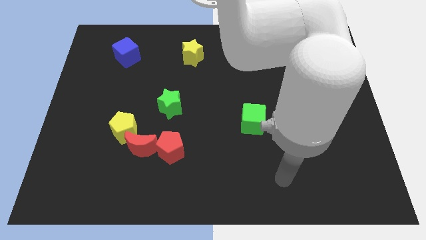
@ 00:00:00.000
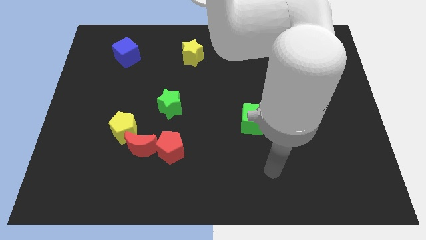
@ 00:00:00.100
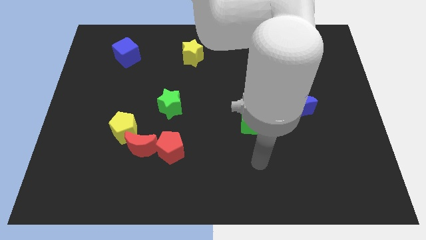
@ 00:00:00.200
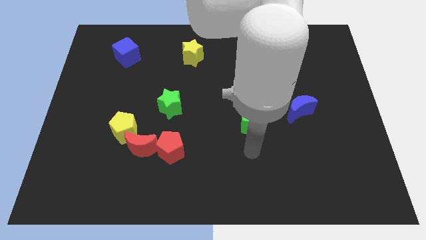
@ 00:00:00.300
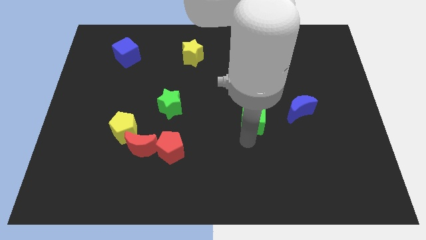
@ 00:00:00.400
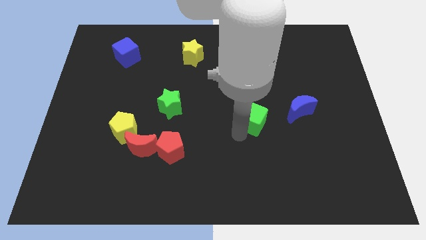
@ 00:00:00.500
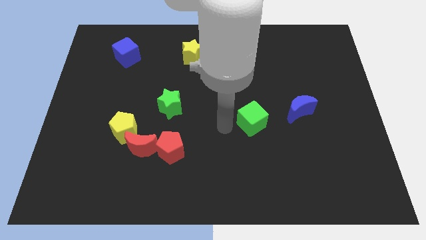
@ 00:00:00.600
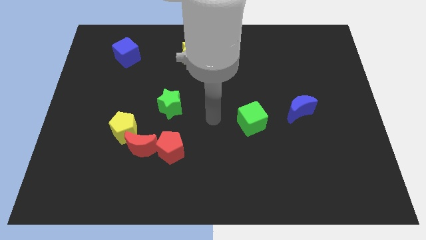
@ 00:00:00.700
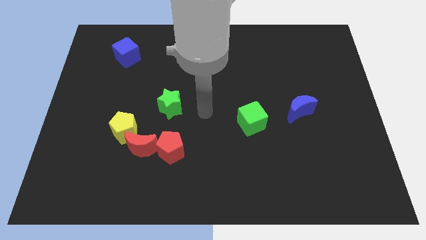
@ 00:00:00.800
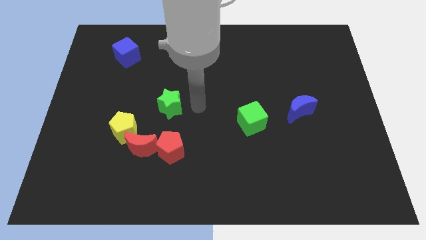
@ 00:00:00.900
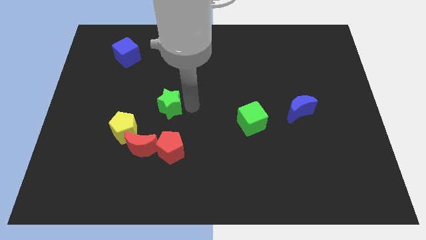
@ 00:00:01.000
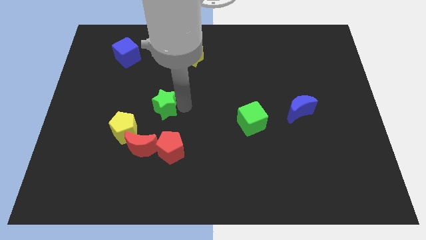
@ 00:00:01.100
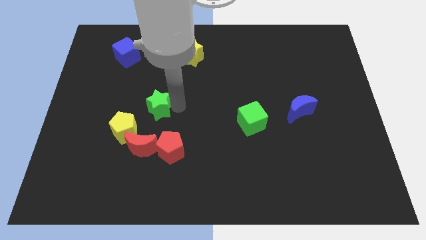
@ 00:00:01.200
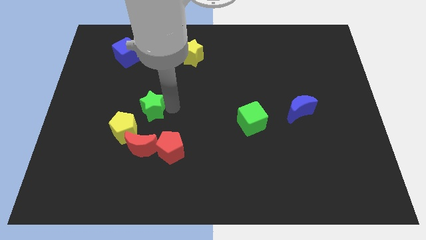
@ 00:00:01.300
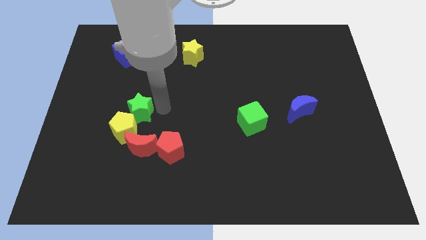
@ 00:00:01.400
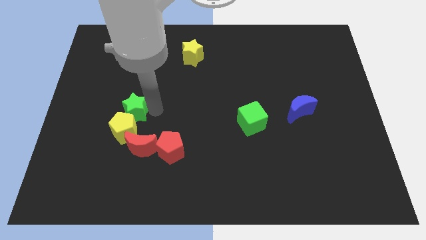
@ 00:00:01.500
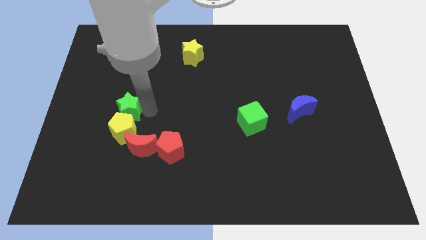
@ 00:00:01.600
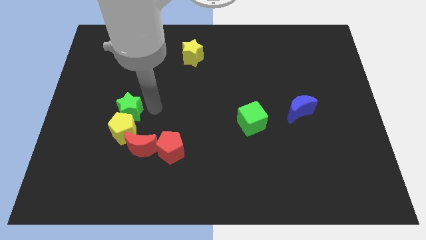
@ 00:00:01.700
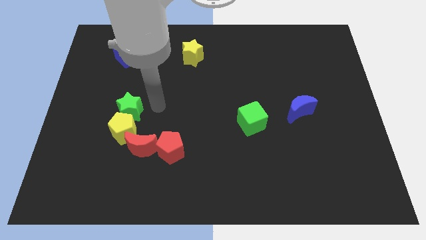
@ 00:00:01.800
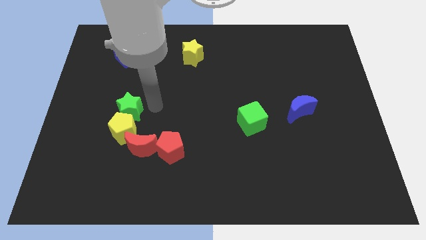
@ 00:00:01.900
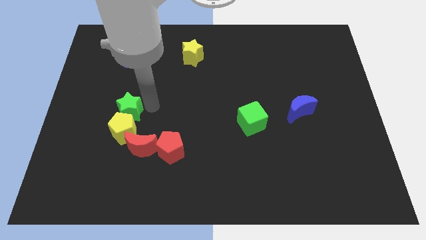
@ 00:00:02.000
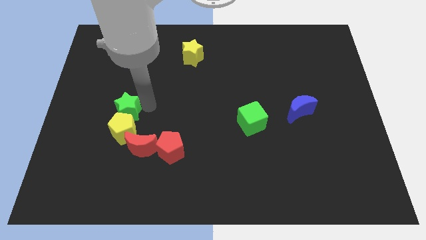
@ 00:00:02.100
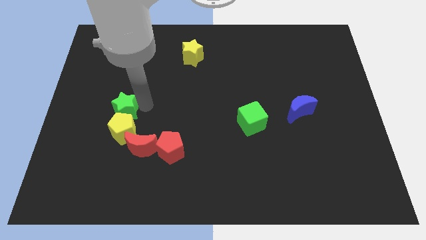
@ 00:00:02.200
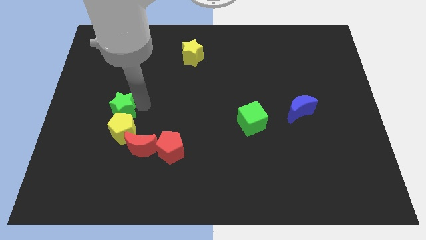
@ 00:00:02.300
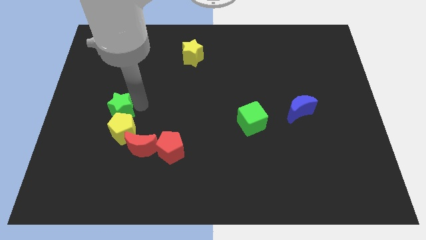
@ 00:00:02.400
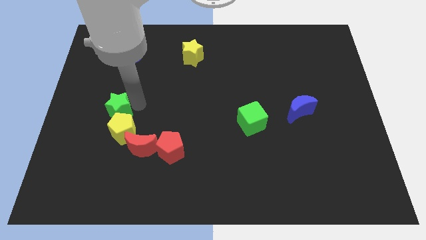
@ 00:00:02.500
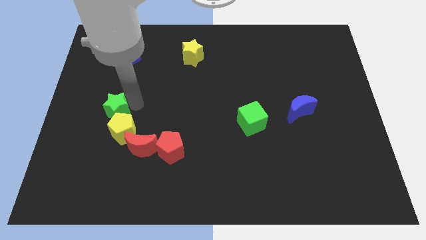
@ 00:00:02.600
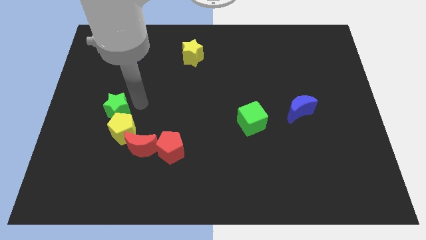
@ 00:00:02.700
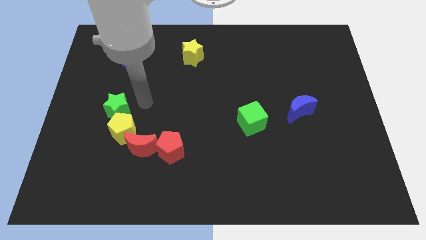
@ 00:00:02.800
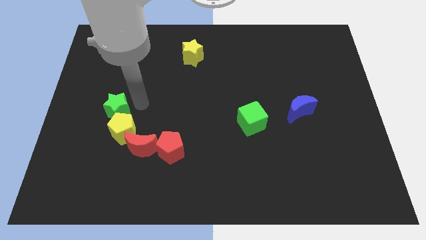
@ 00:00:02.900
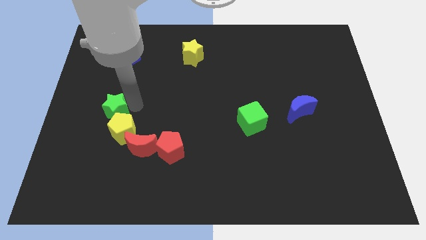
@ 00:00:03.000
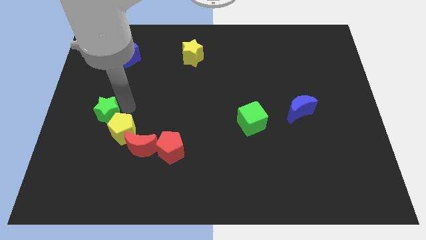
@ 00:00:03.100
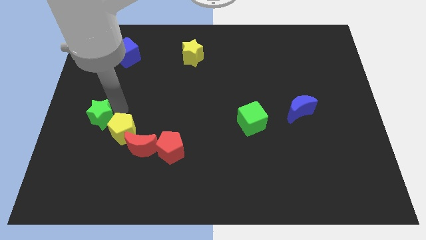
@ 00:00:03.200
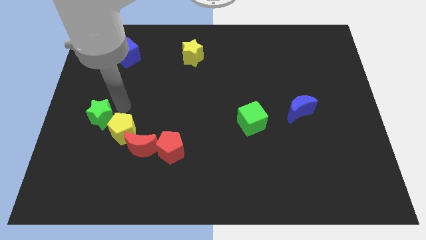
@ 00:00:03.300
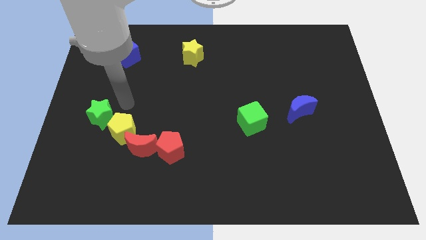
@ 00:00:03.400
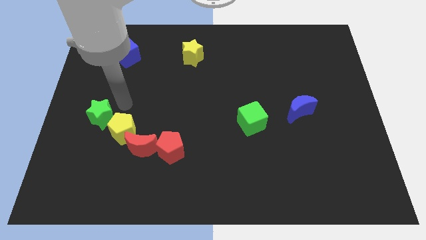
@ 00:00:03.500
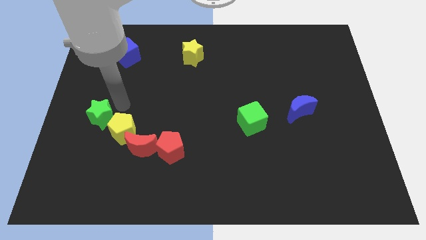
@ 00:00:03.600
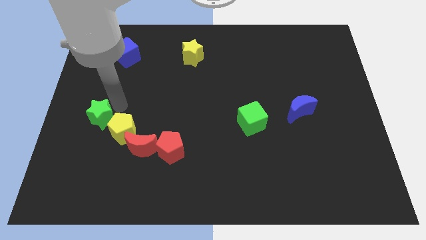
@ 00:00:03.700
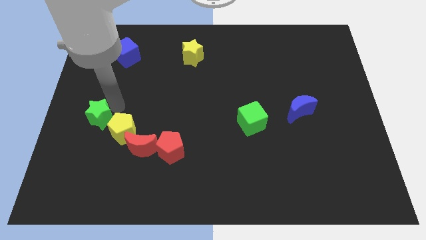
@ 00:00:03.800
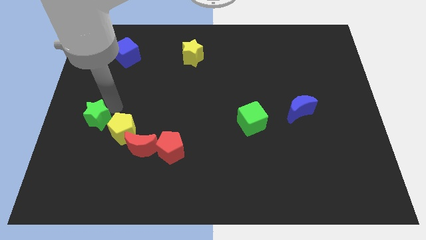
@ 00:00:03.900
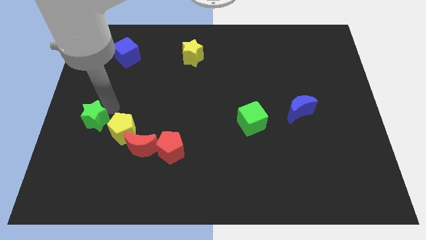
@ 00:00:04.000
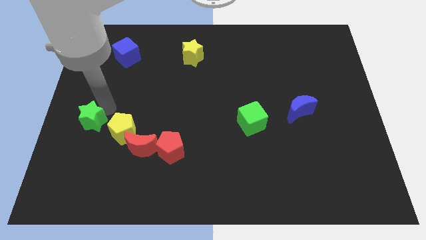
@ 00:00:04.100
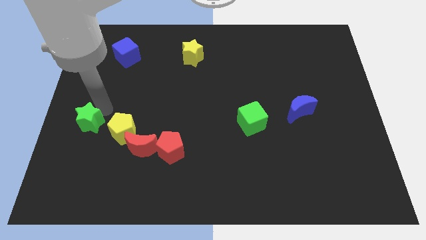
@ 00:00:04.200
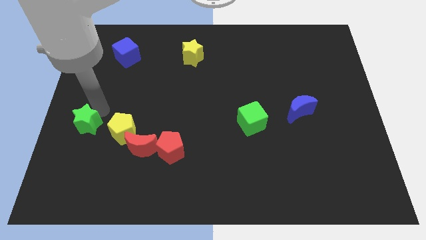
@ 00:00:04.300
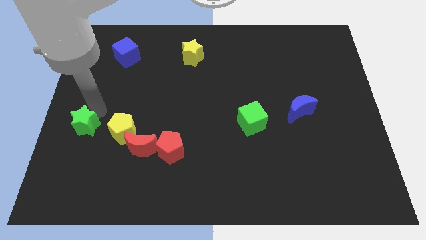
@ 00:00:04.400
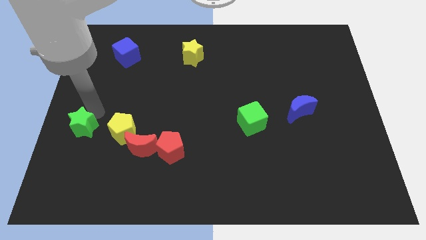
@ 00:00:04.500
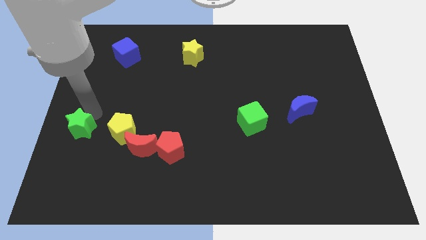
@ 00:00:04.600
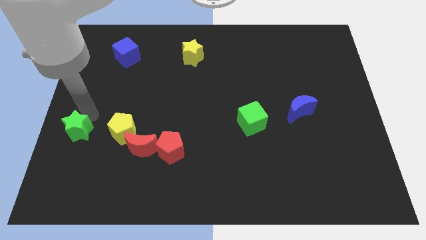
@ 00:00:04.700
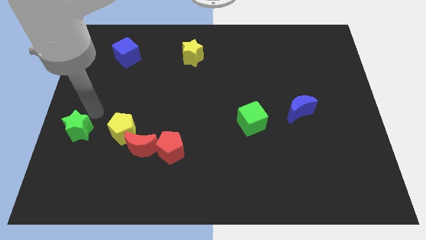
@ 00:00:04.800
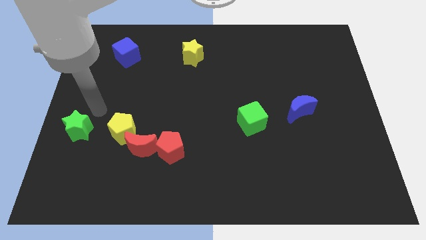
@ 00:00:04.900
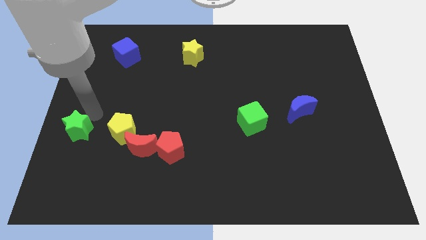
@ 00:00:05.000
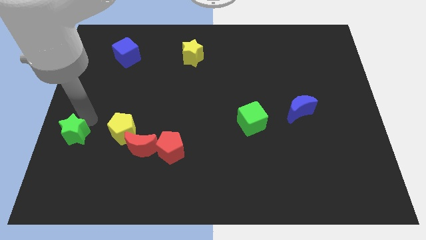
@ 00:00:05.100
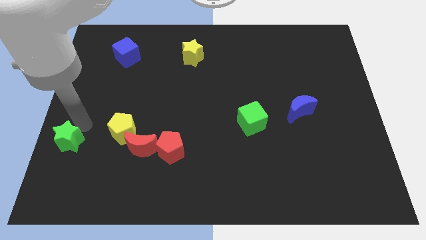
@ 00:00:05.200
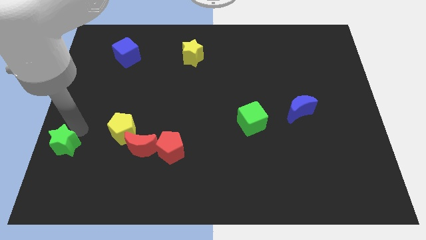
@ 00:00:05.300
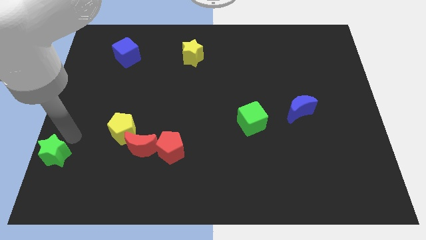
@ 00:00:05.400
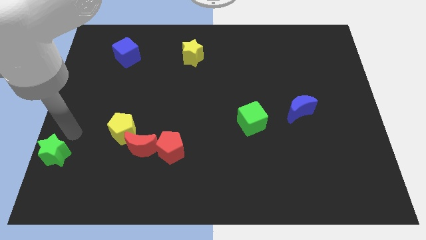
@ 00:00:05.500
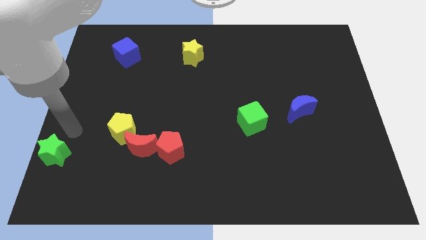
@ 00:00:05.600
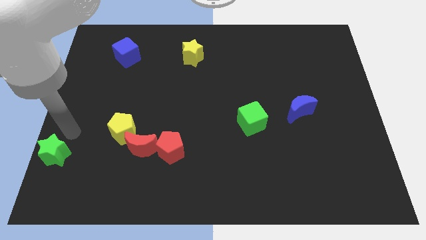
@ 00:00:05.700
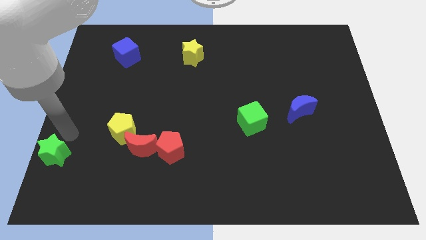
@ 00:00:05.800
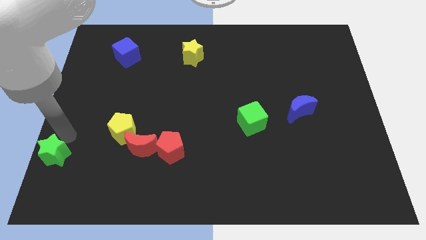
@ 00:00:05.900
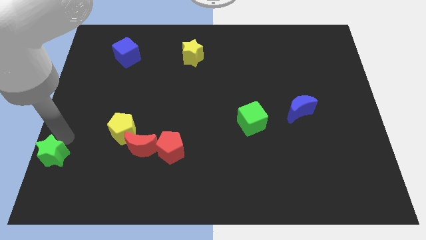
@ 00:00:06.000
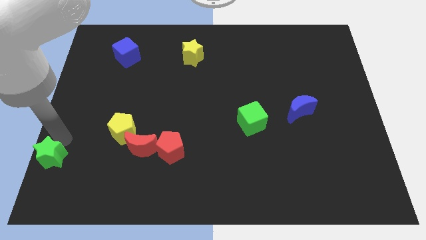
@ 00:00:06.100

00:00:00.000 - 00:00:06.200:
slide the green star to the lower left corner
